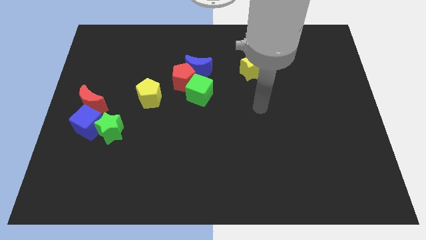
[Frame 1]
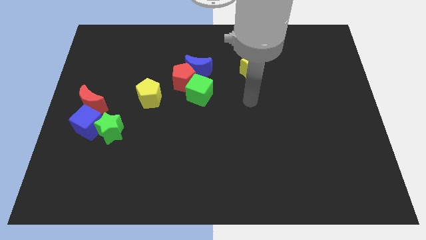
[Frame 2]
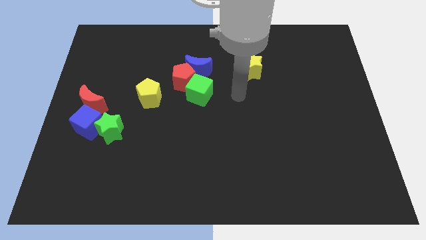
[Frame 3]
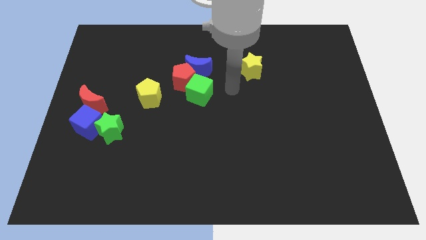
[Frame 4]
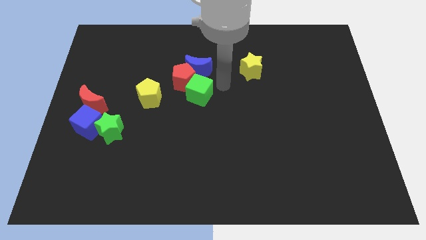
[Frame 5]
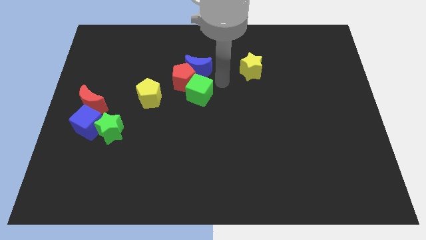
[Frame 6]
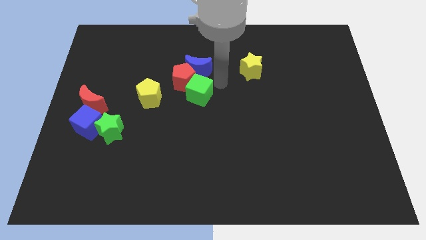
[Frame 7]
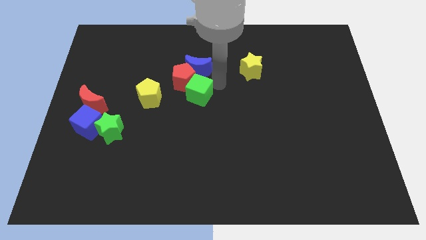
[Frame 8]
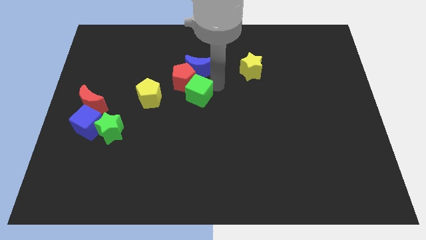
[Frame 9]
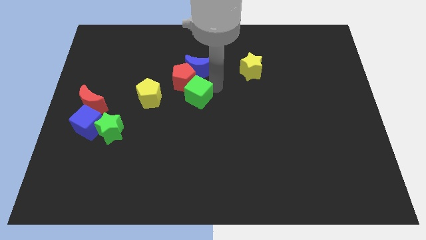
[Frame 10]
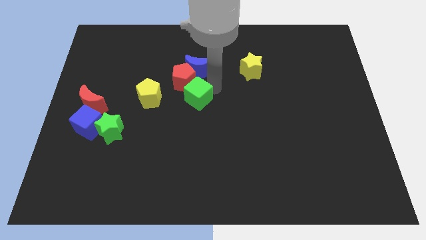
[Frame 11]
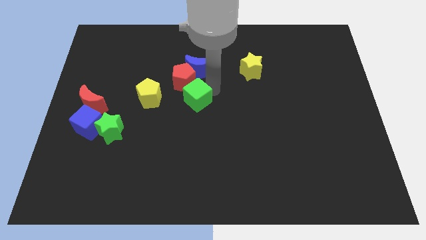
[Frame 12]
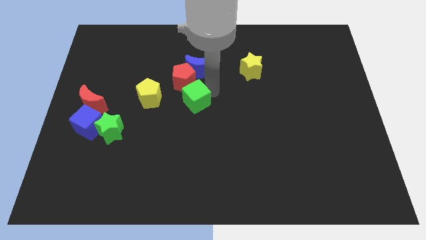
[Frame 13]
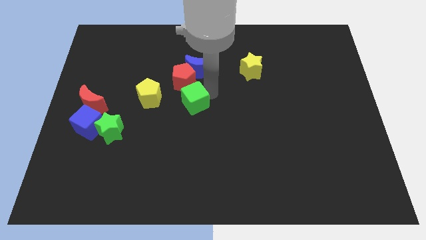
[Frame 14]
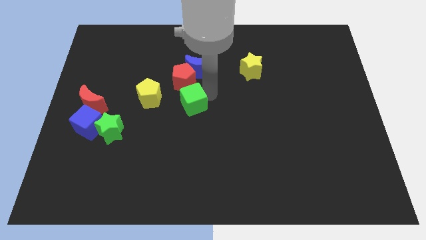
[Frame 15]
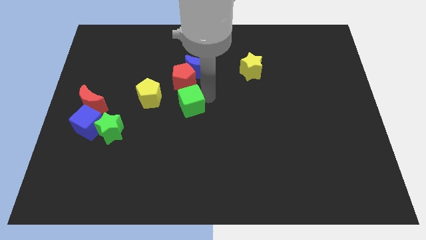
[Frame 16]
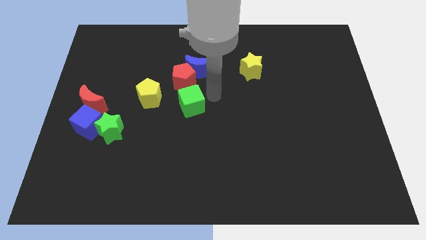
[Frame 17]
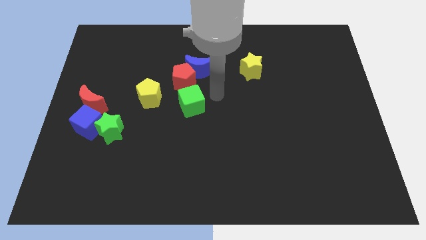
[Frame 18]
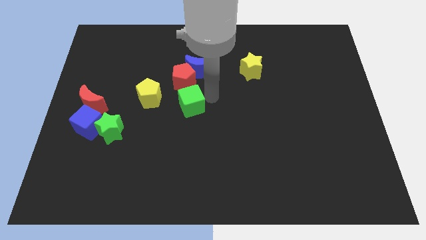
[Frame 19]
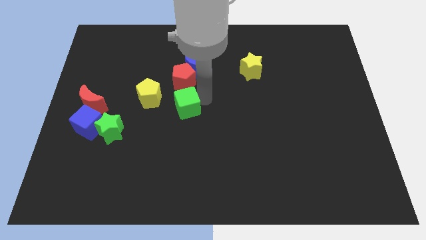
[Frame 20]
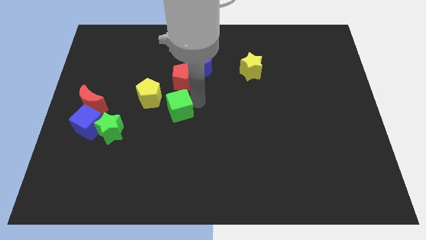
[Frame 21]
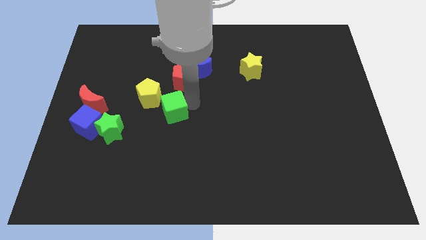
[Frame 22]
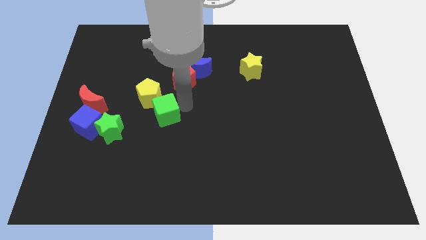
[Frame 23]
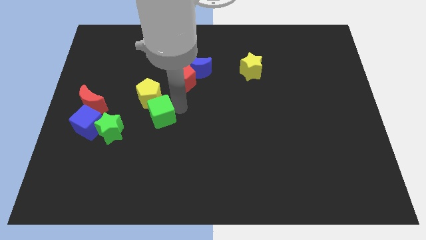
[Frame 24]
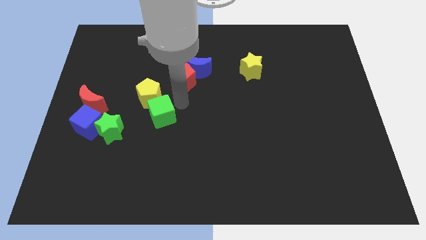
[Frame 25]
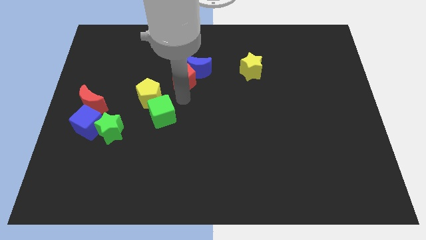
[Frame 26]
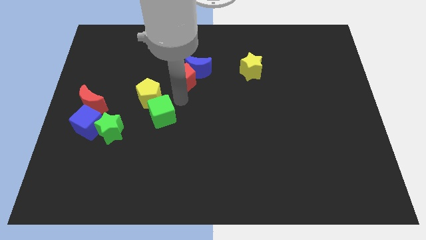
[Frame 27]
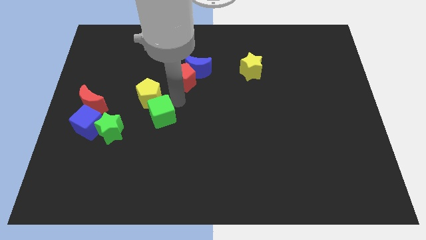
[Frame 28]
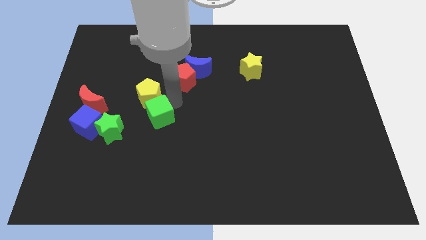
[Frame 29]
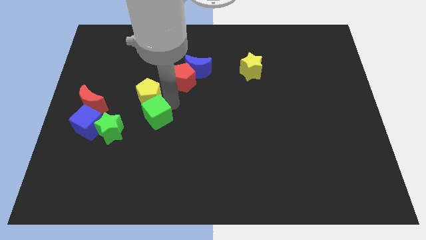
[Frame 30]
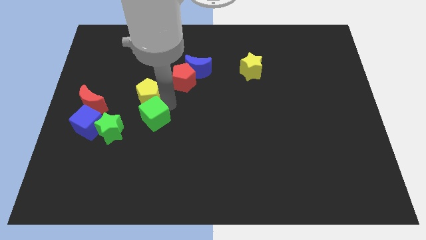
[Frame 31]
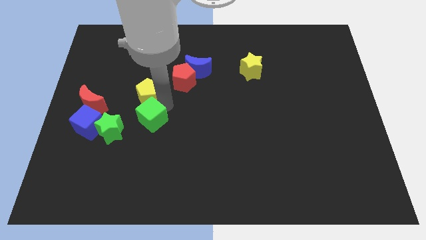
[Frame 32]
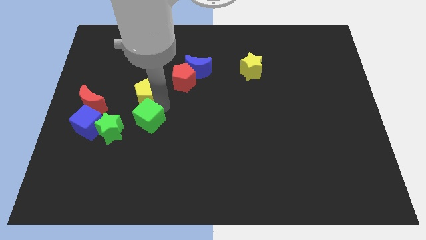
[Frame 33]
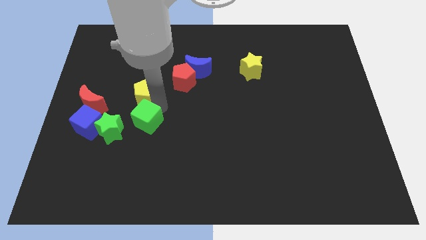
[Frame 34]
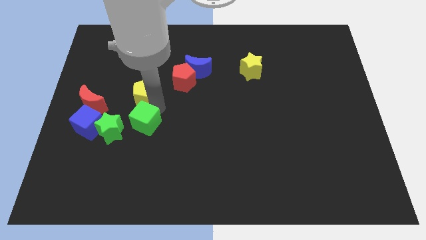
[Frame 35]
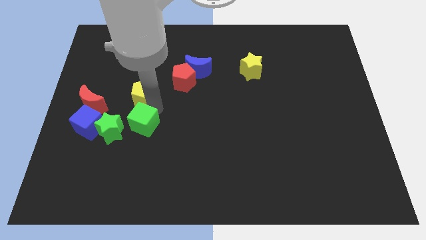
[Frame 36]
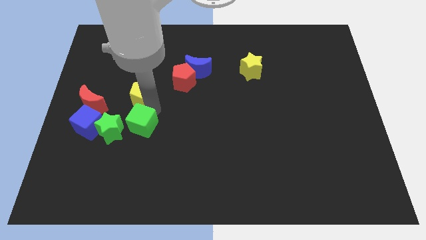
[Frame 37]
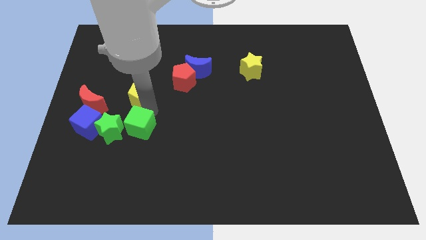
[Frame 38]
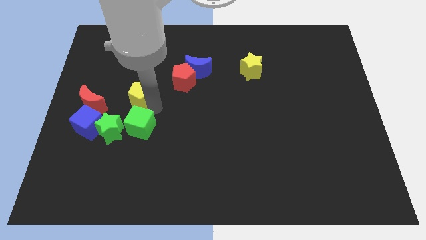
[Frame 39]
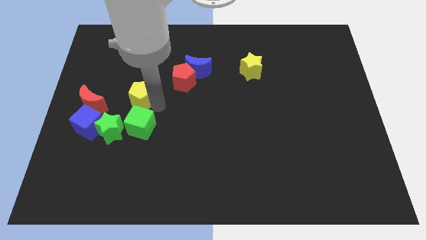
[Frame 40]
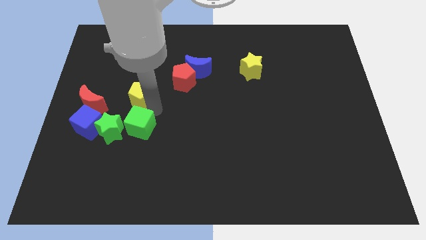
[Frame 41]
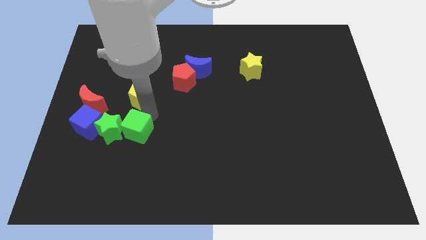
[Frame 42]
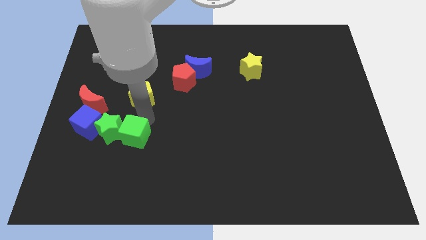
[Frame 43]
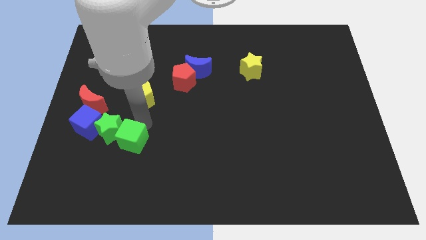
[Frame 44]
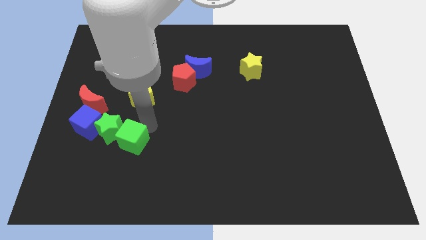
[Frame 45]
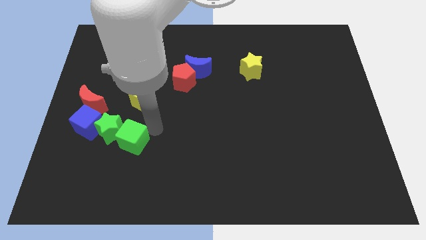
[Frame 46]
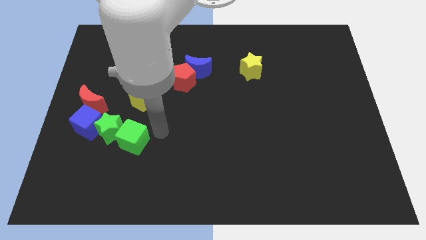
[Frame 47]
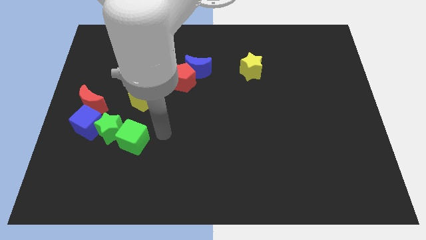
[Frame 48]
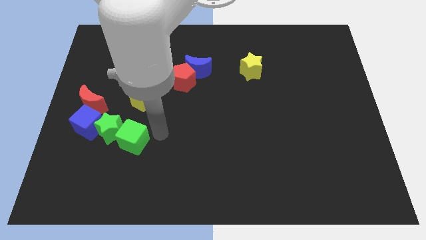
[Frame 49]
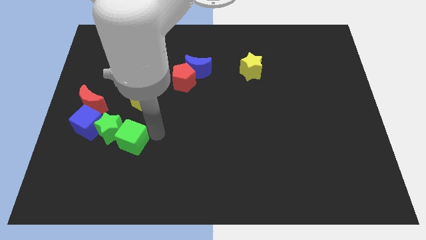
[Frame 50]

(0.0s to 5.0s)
move the green cube to the bottom right side of the blue cube

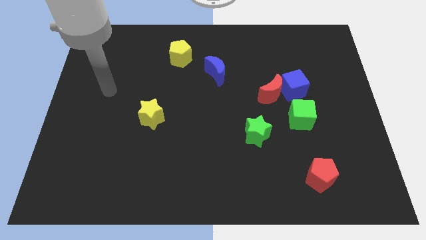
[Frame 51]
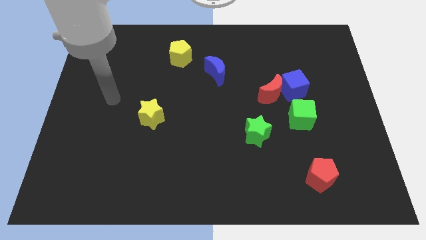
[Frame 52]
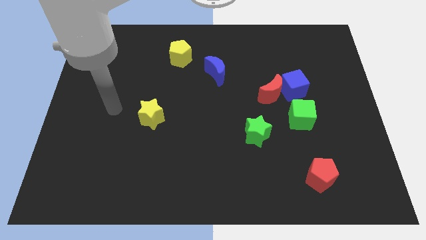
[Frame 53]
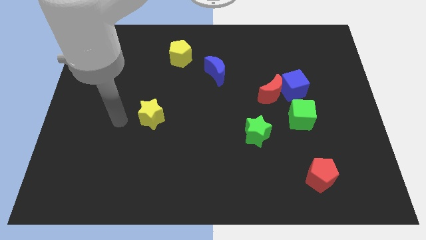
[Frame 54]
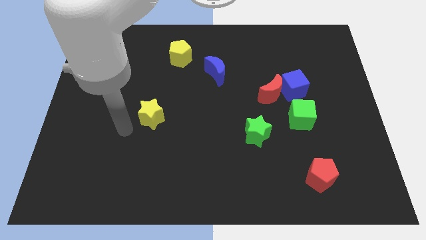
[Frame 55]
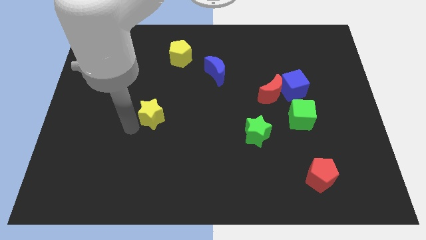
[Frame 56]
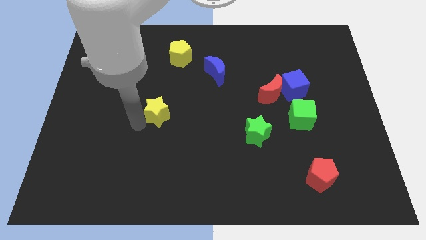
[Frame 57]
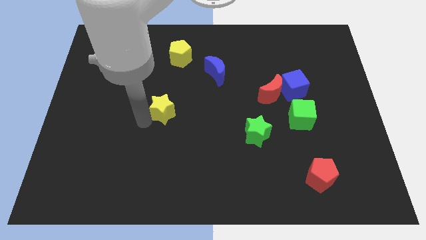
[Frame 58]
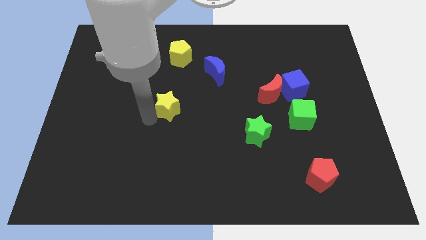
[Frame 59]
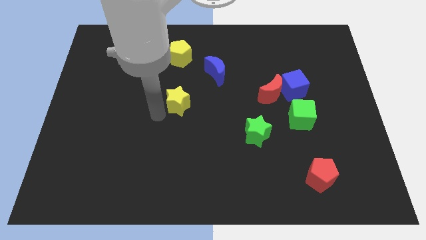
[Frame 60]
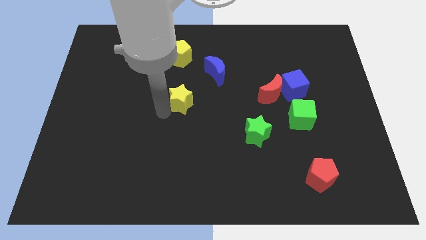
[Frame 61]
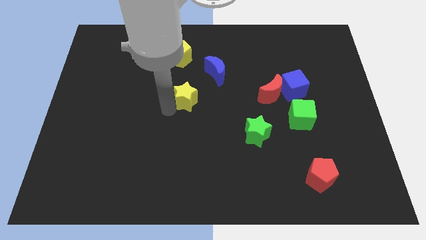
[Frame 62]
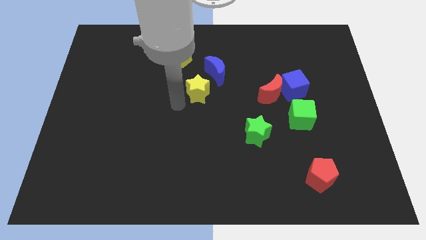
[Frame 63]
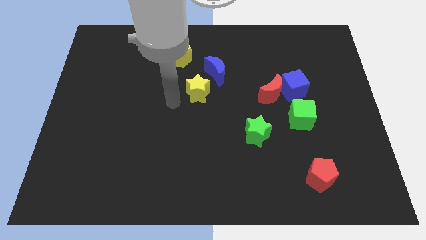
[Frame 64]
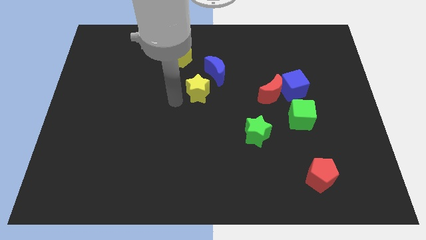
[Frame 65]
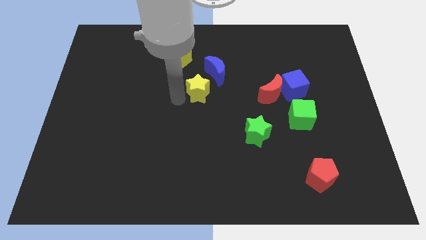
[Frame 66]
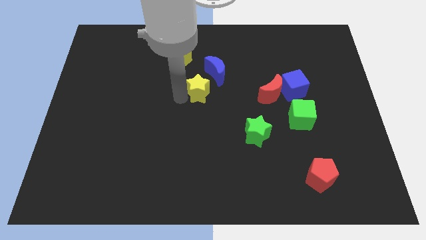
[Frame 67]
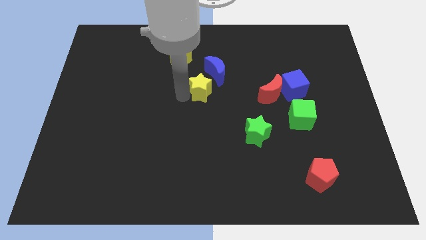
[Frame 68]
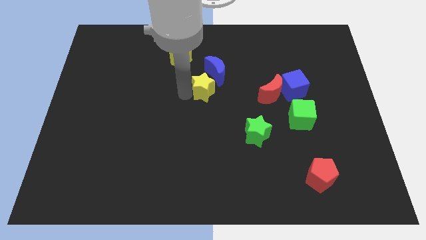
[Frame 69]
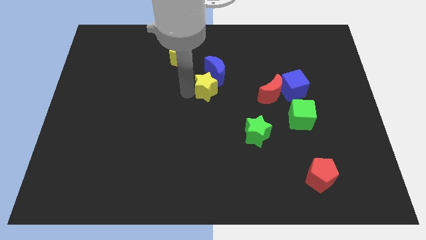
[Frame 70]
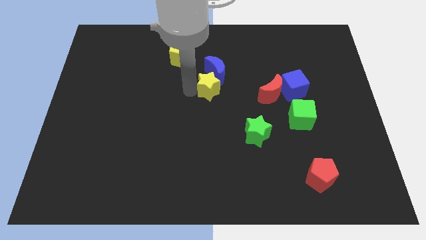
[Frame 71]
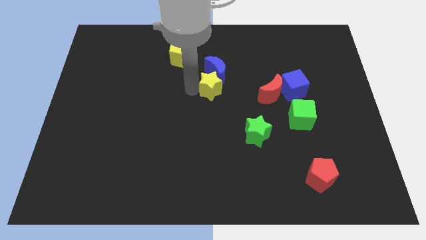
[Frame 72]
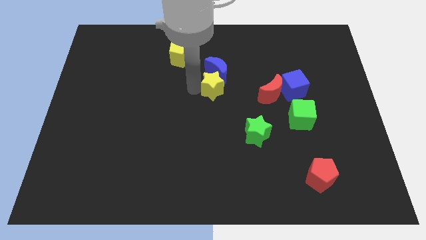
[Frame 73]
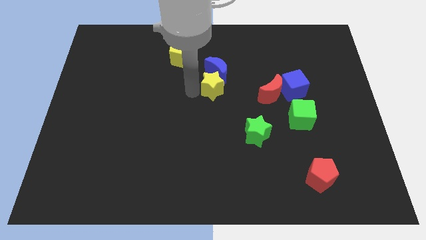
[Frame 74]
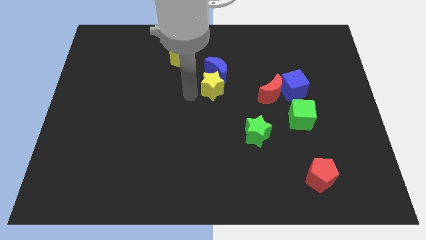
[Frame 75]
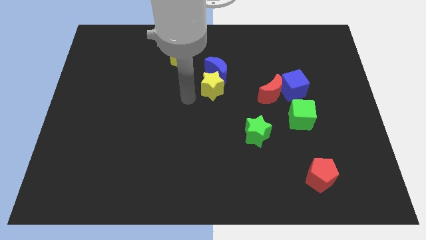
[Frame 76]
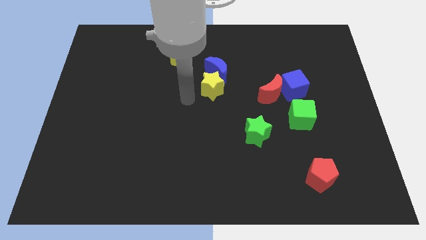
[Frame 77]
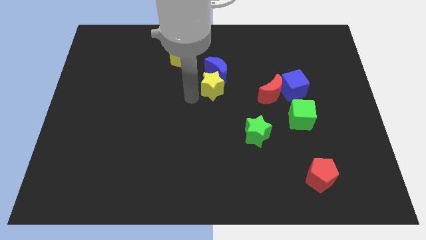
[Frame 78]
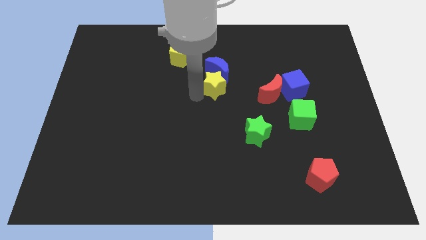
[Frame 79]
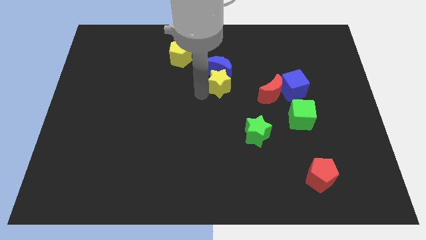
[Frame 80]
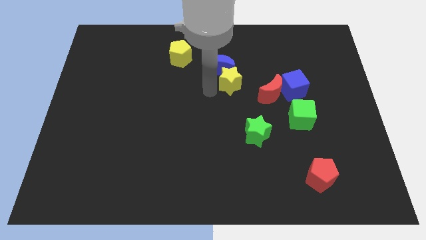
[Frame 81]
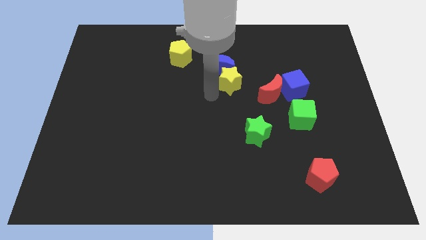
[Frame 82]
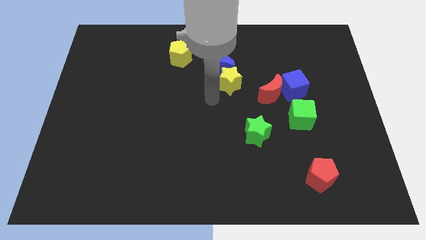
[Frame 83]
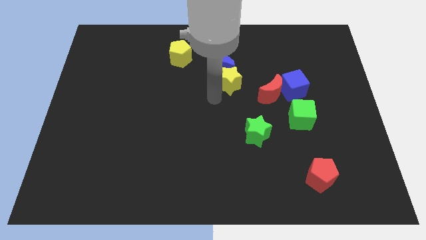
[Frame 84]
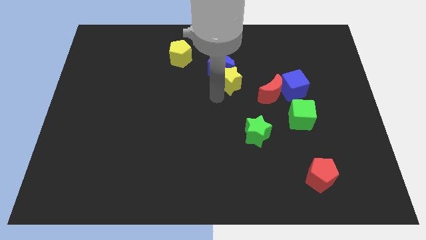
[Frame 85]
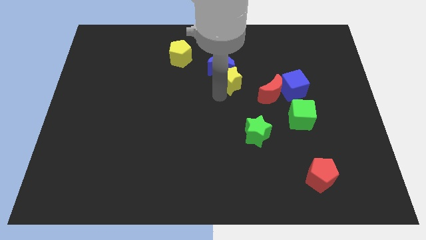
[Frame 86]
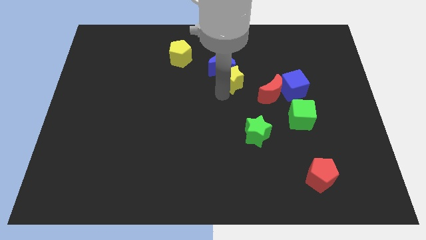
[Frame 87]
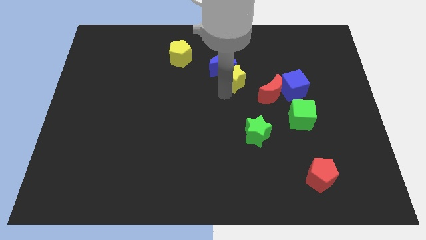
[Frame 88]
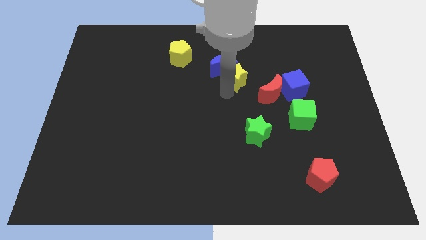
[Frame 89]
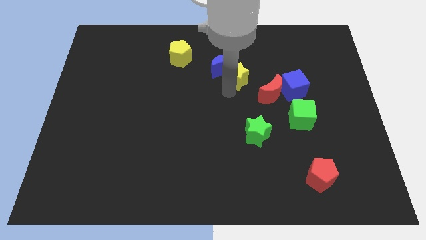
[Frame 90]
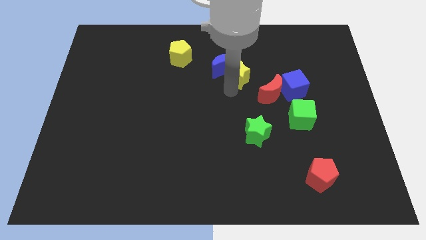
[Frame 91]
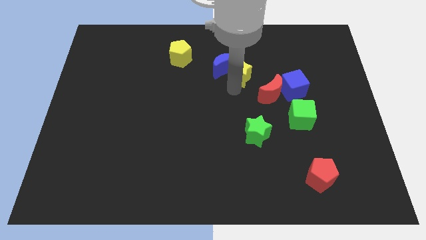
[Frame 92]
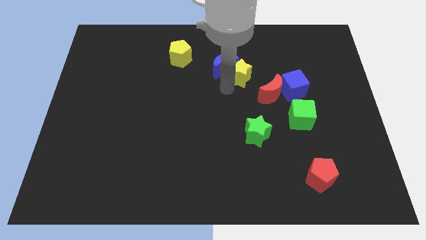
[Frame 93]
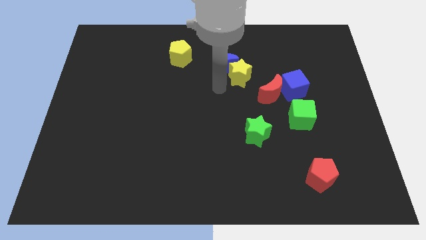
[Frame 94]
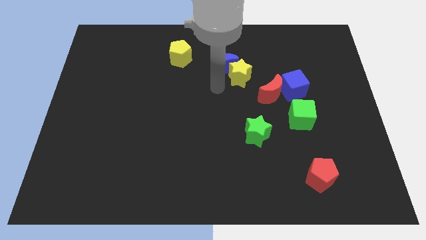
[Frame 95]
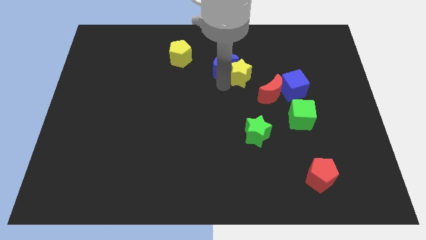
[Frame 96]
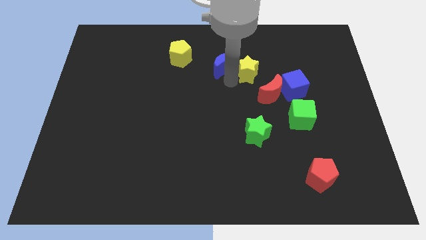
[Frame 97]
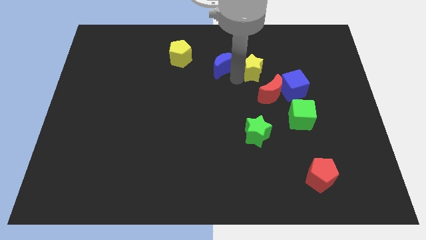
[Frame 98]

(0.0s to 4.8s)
slide the yellow star to the top side of the red moon
